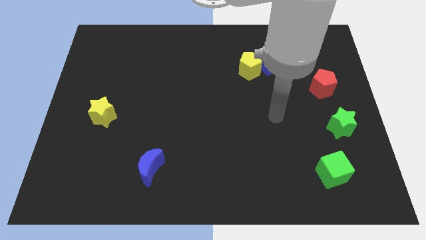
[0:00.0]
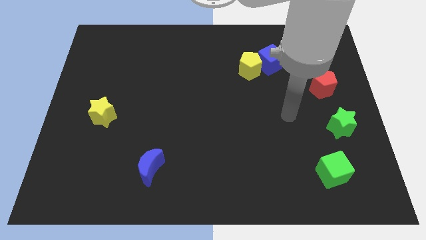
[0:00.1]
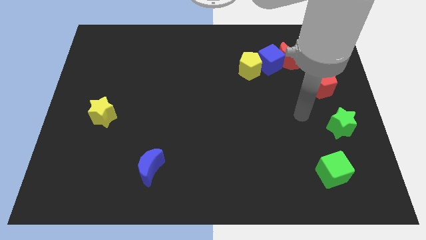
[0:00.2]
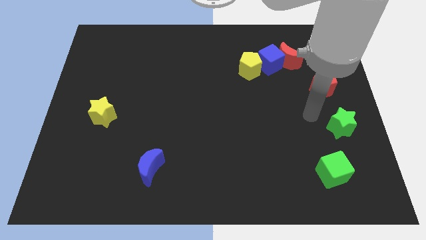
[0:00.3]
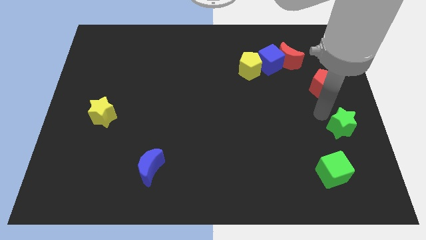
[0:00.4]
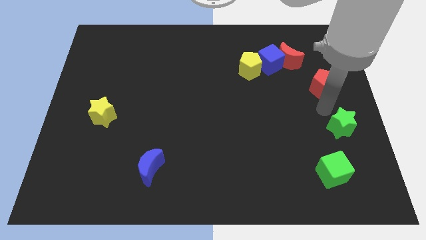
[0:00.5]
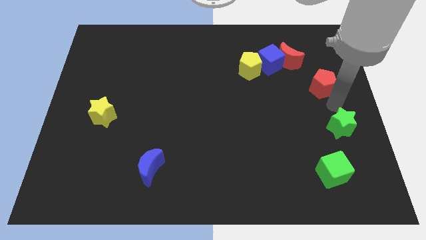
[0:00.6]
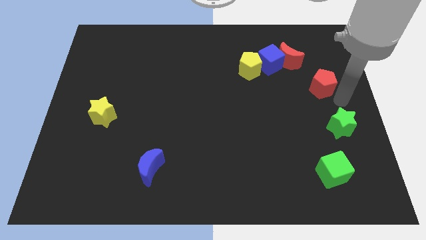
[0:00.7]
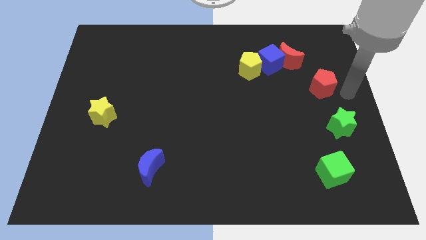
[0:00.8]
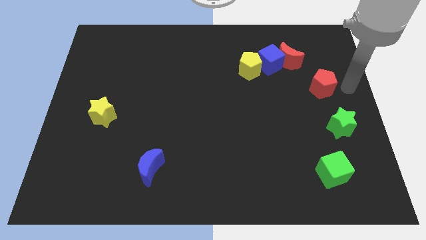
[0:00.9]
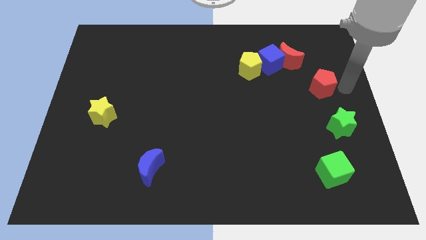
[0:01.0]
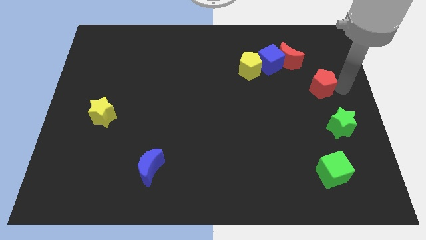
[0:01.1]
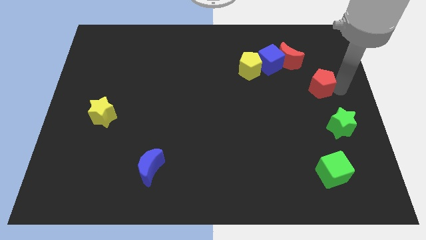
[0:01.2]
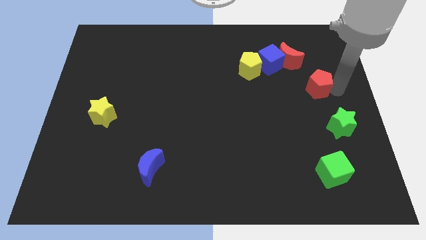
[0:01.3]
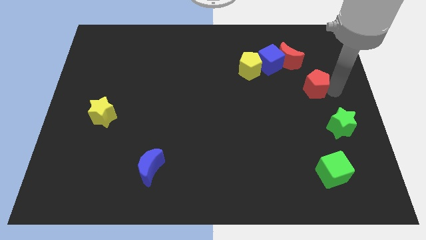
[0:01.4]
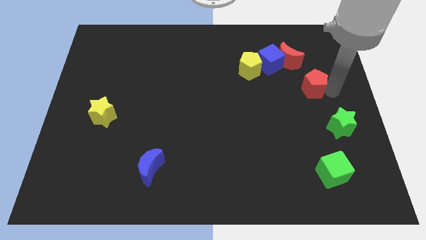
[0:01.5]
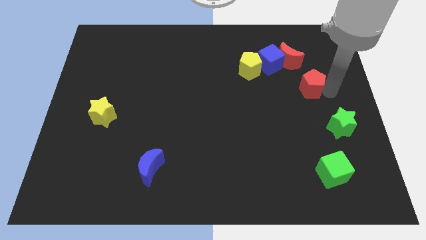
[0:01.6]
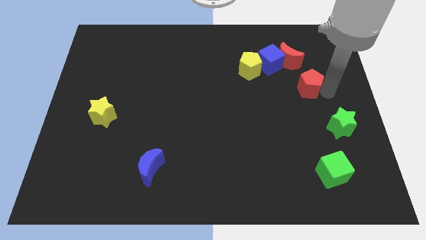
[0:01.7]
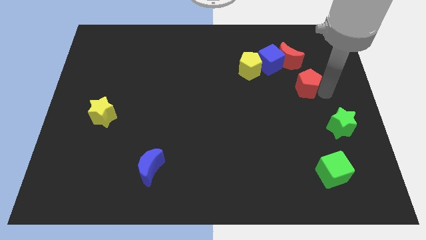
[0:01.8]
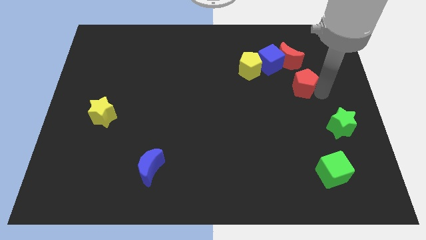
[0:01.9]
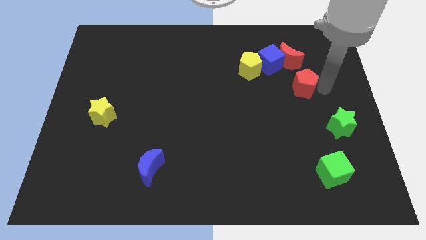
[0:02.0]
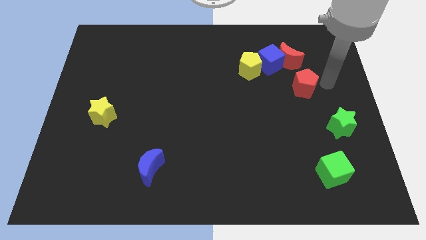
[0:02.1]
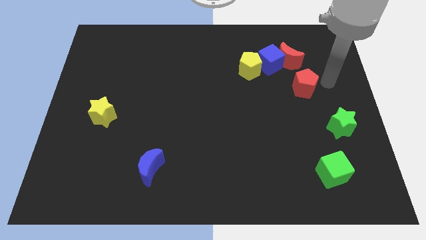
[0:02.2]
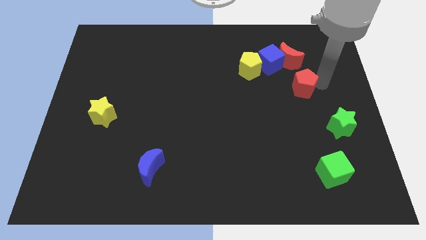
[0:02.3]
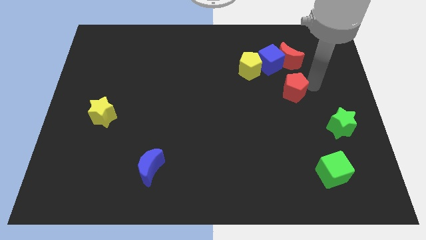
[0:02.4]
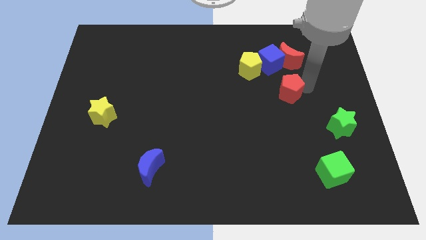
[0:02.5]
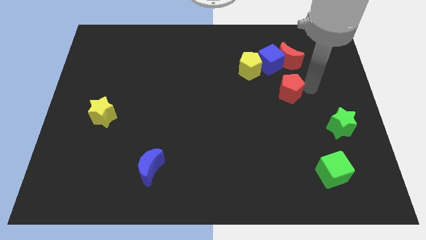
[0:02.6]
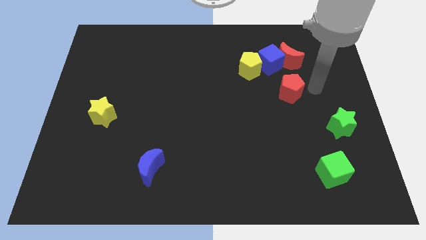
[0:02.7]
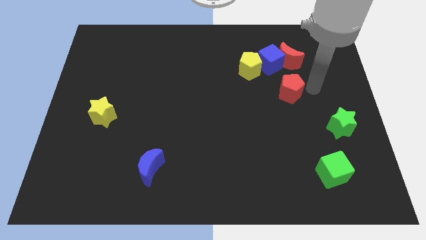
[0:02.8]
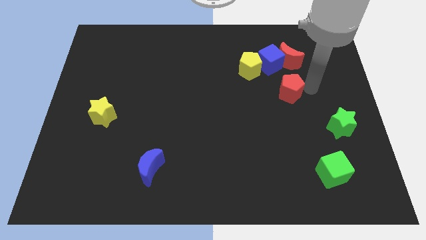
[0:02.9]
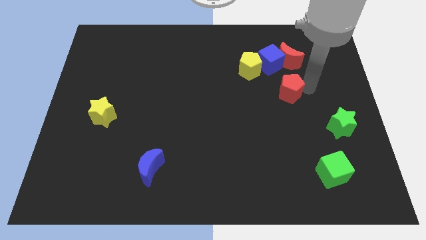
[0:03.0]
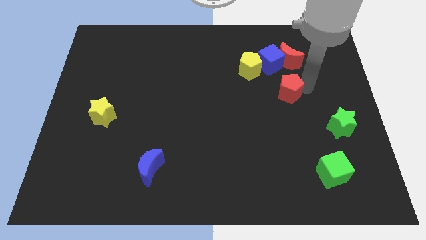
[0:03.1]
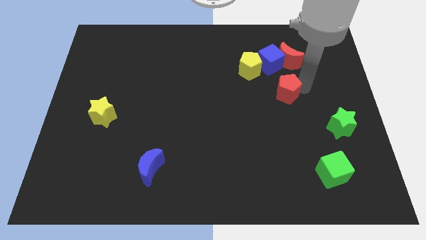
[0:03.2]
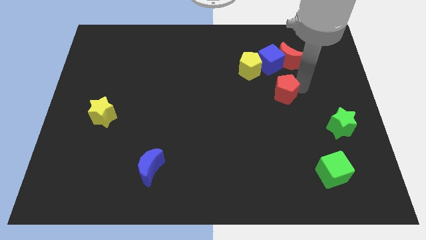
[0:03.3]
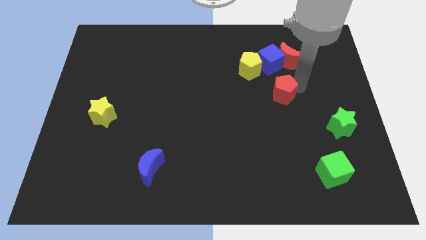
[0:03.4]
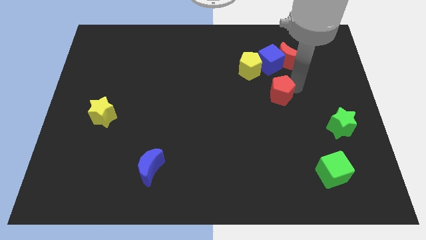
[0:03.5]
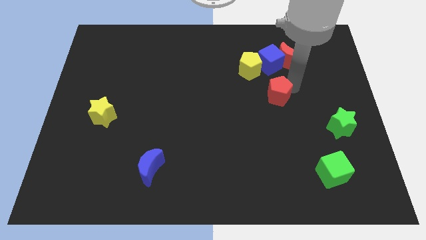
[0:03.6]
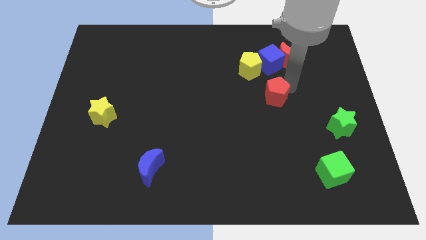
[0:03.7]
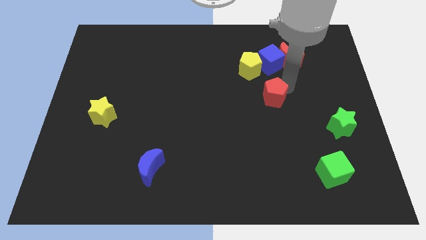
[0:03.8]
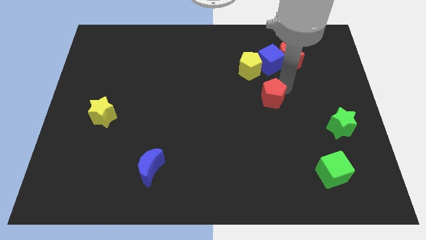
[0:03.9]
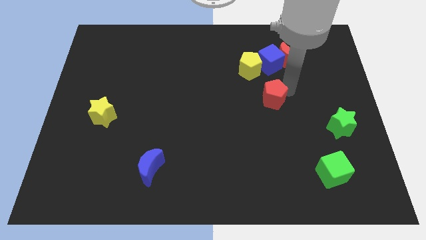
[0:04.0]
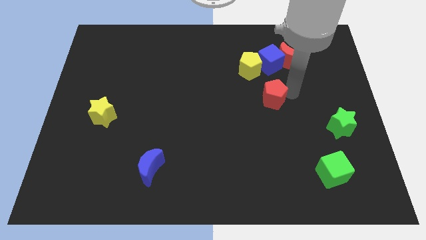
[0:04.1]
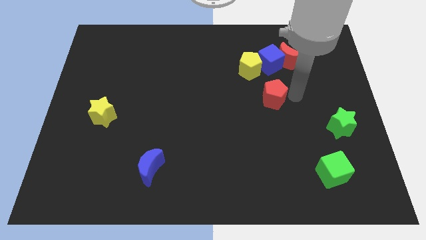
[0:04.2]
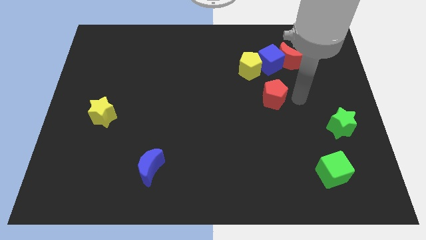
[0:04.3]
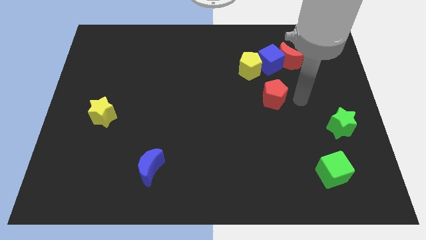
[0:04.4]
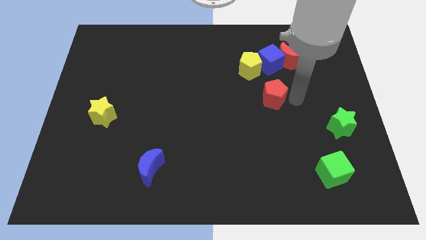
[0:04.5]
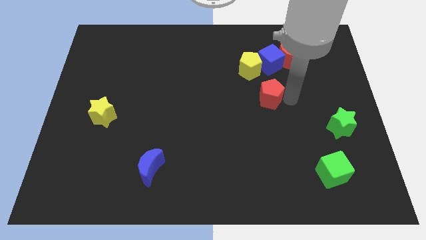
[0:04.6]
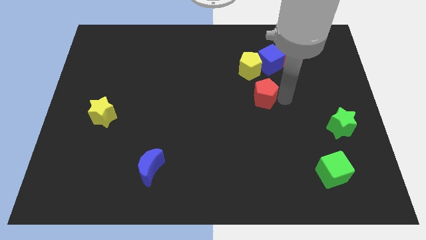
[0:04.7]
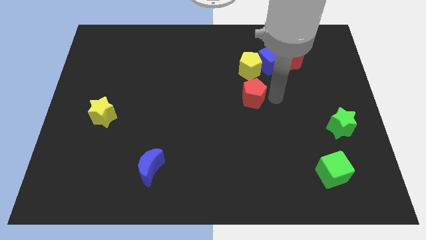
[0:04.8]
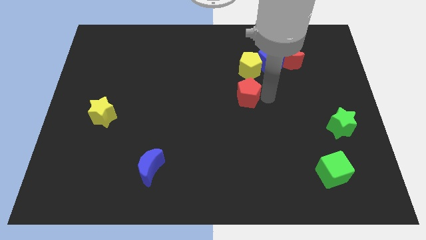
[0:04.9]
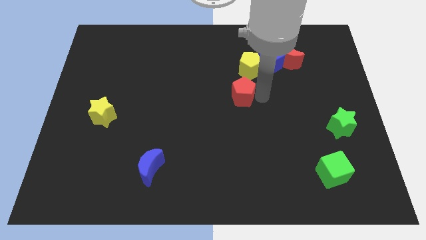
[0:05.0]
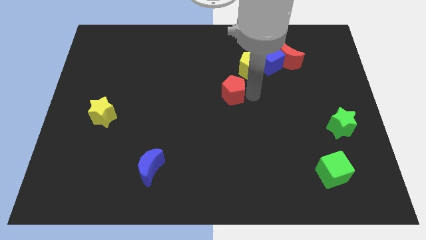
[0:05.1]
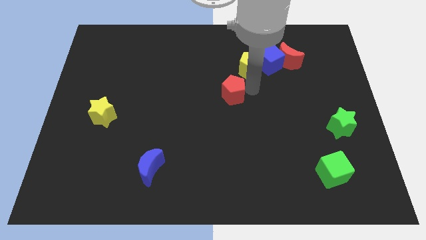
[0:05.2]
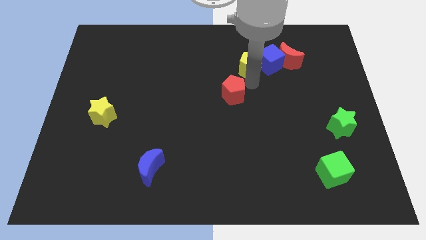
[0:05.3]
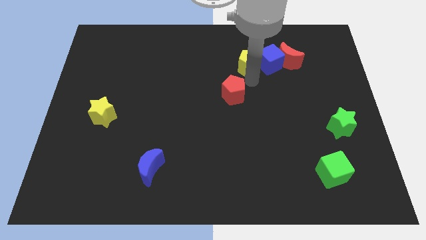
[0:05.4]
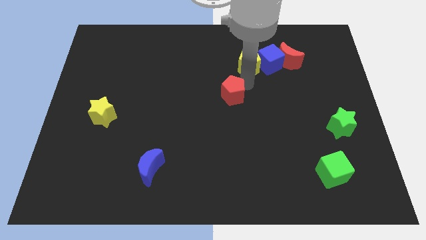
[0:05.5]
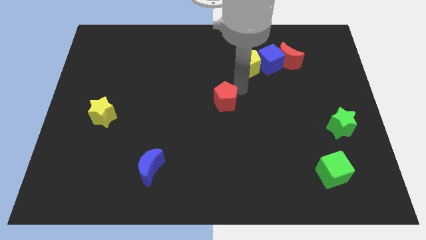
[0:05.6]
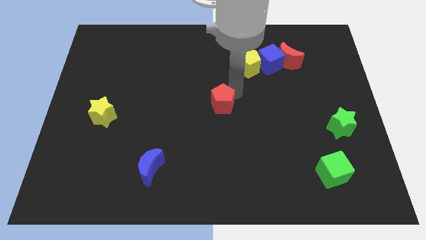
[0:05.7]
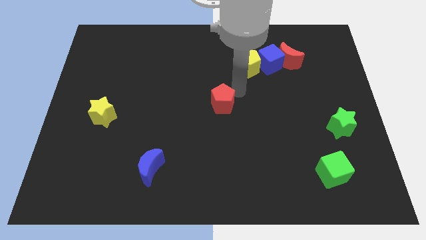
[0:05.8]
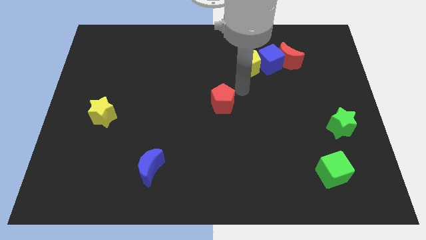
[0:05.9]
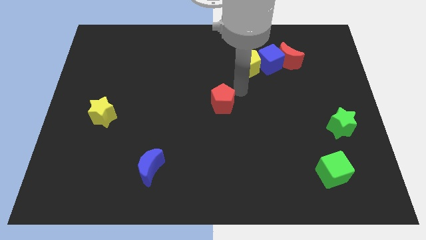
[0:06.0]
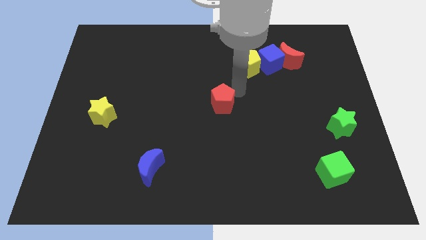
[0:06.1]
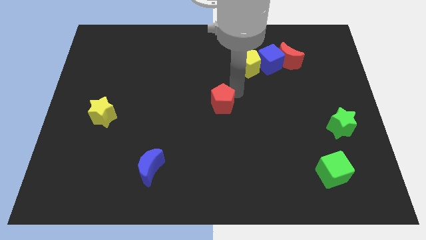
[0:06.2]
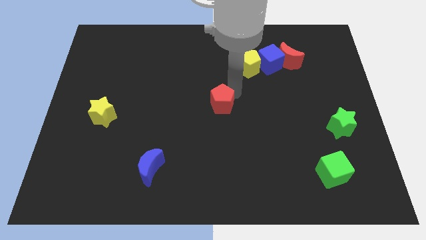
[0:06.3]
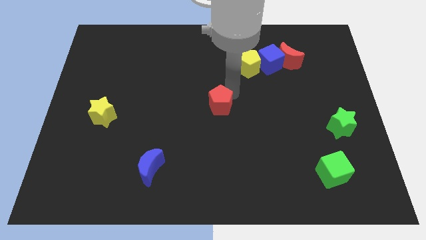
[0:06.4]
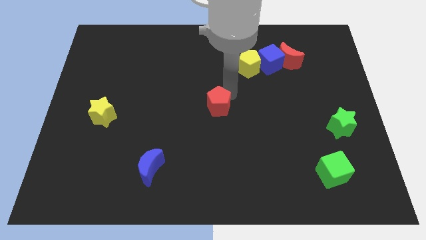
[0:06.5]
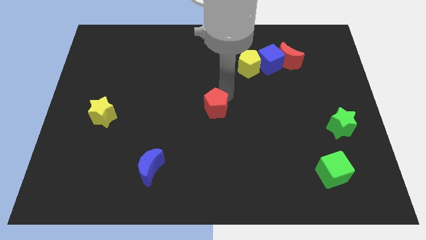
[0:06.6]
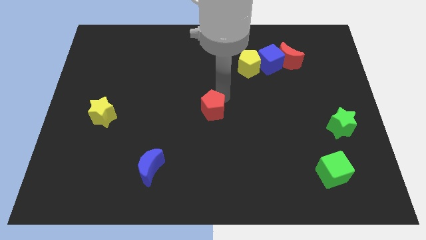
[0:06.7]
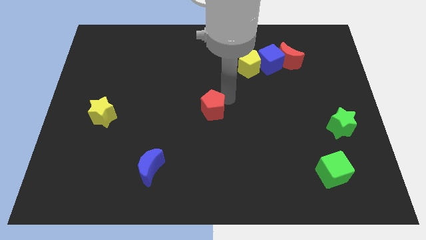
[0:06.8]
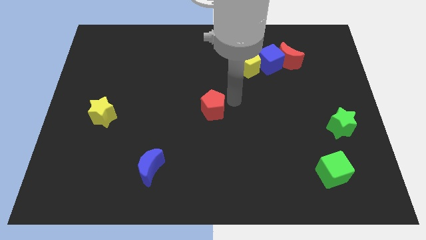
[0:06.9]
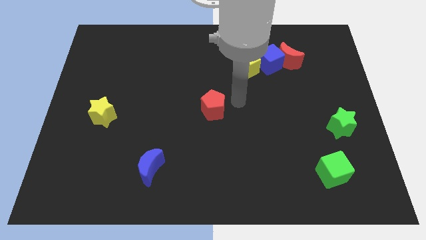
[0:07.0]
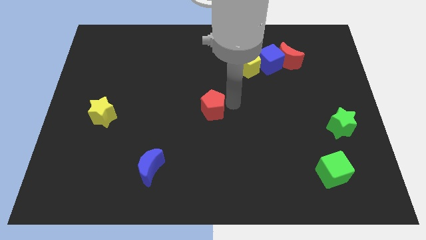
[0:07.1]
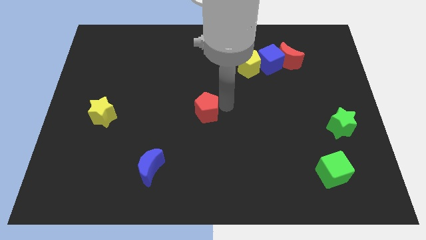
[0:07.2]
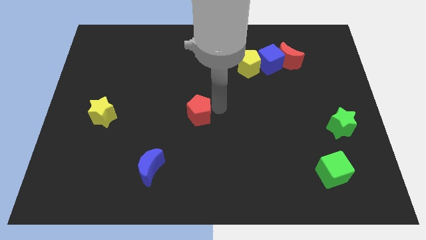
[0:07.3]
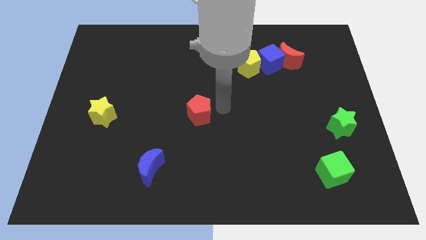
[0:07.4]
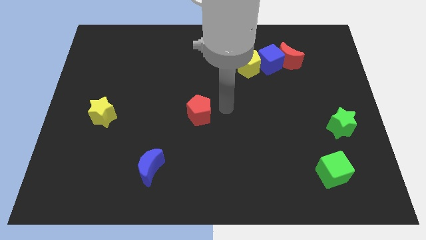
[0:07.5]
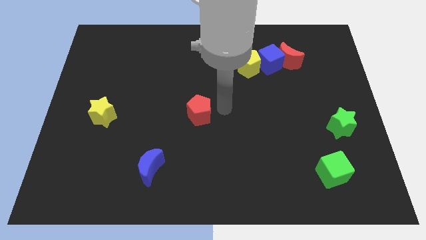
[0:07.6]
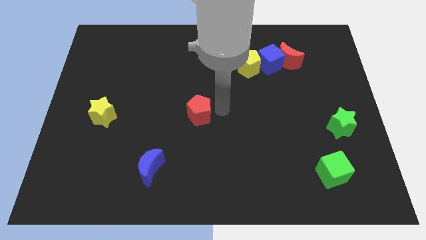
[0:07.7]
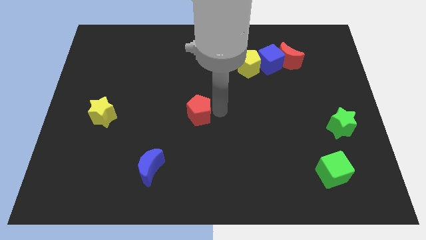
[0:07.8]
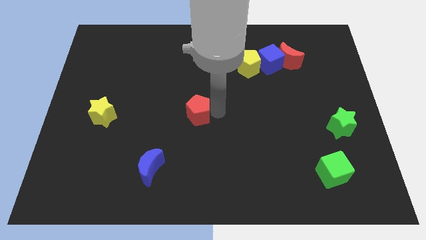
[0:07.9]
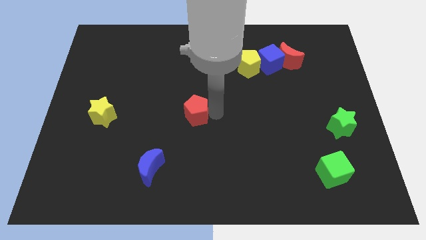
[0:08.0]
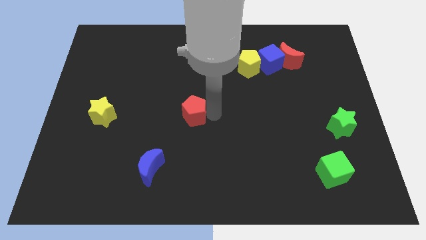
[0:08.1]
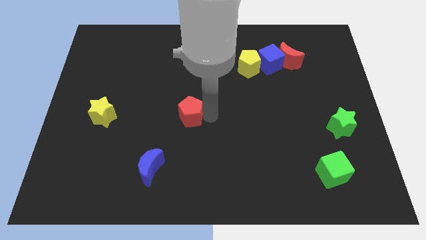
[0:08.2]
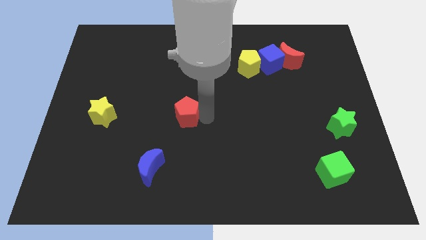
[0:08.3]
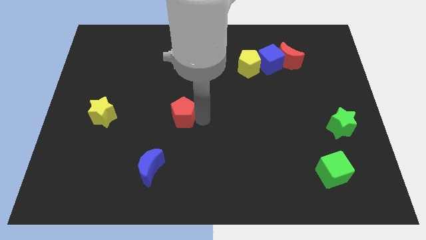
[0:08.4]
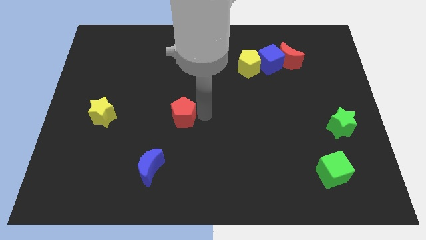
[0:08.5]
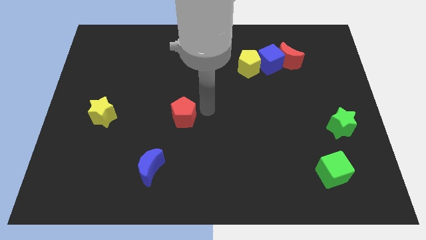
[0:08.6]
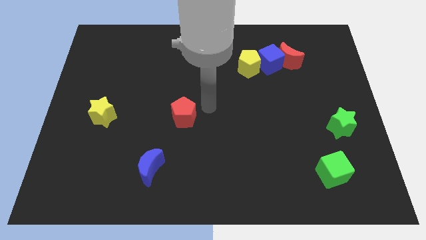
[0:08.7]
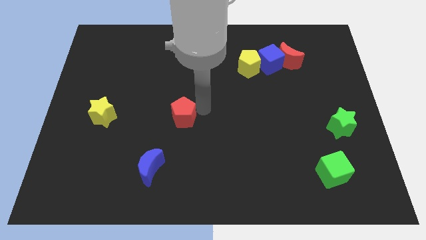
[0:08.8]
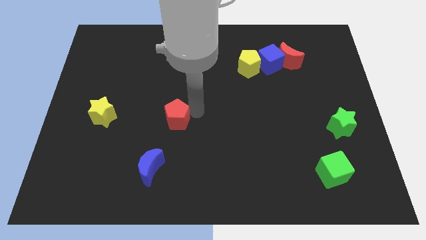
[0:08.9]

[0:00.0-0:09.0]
push the red pentagon to the top side of the blue moon
